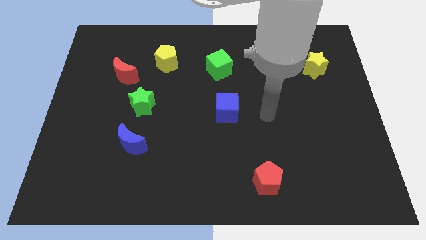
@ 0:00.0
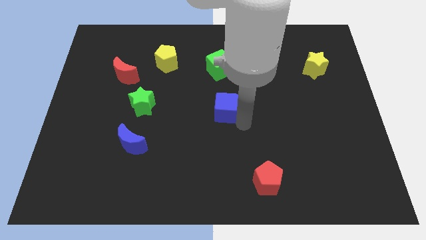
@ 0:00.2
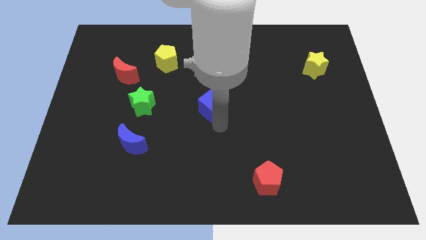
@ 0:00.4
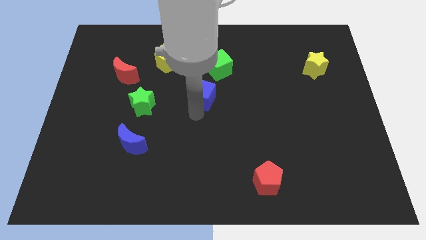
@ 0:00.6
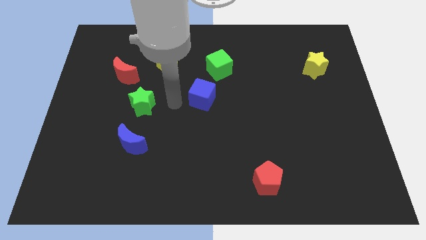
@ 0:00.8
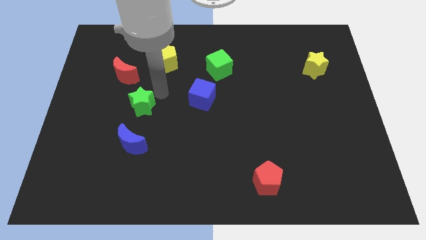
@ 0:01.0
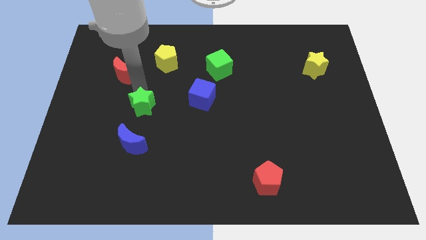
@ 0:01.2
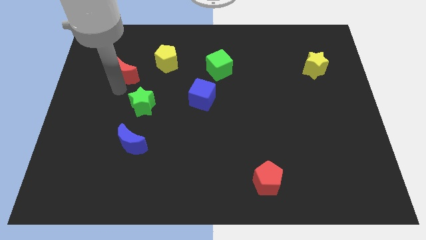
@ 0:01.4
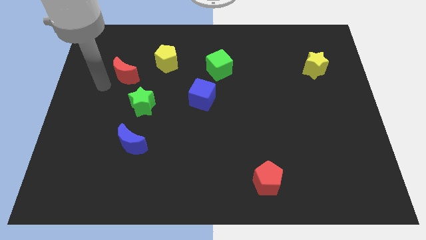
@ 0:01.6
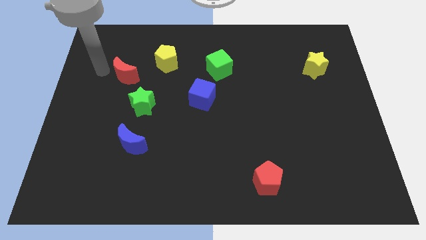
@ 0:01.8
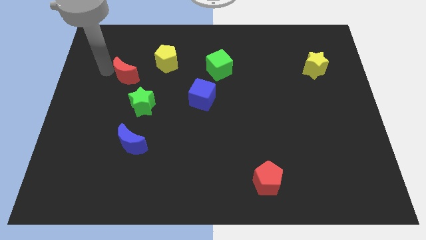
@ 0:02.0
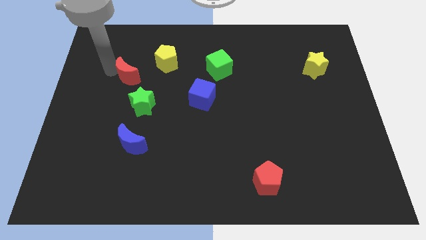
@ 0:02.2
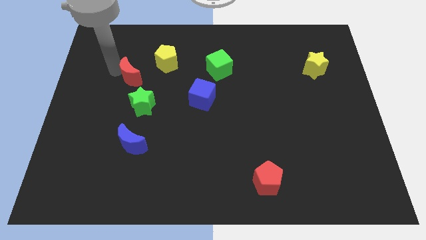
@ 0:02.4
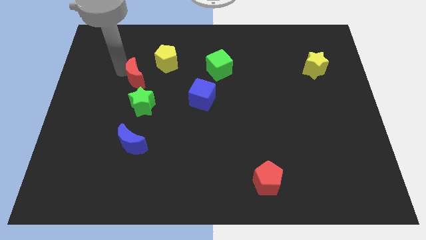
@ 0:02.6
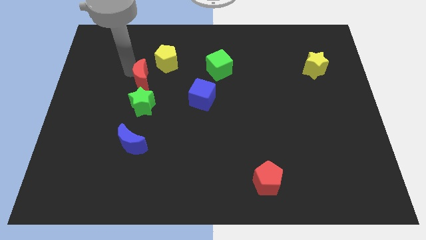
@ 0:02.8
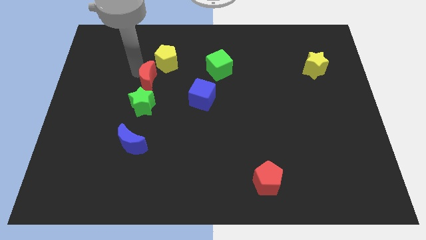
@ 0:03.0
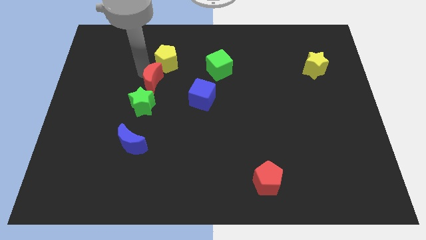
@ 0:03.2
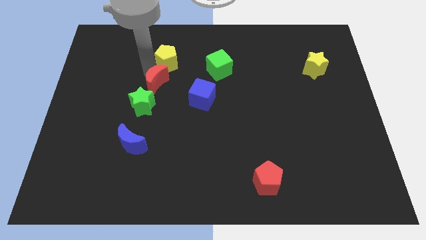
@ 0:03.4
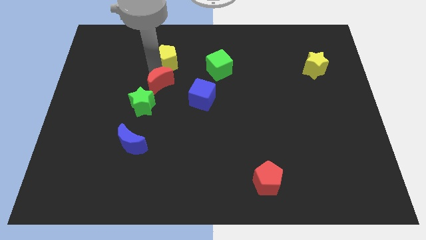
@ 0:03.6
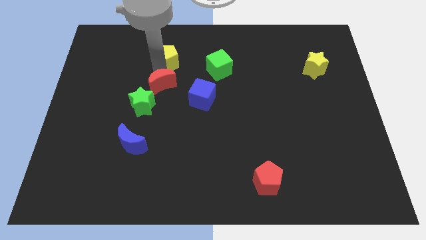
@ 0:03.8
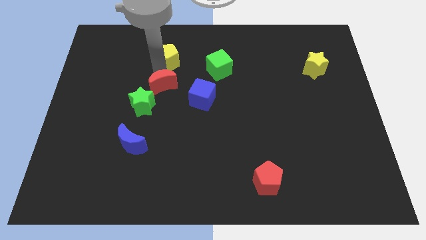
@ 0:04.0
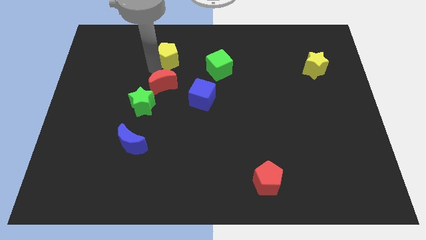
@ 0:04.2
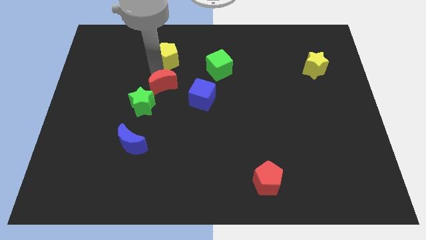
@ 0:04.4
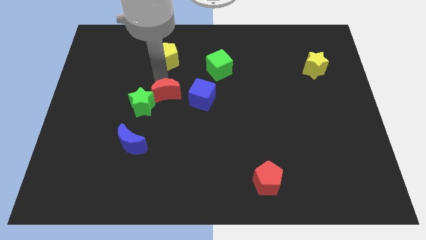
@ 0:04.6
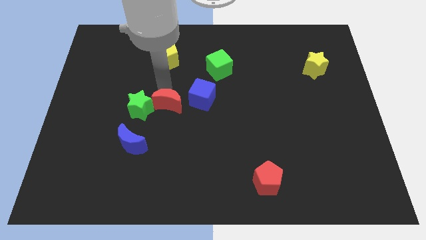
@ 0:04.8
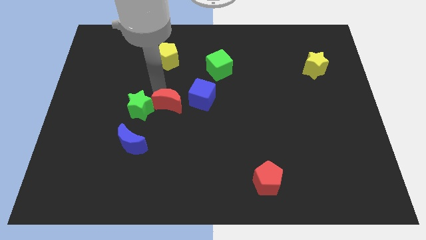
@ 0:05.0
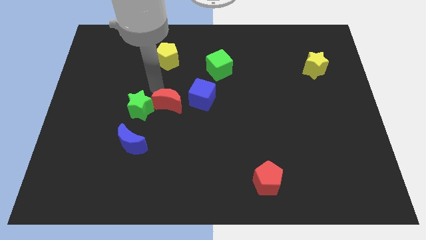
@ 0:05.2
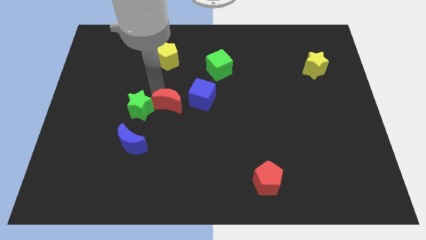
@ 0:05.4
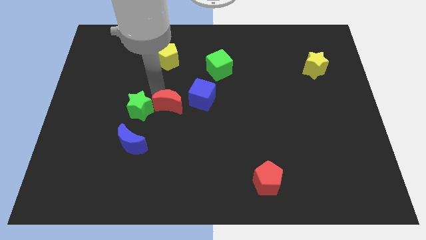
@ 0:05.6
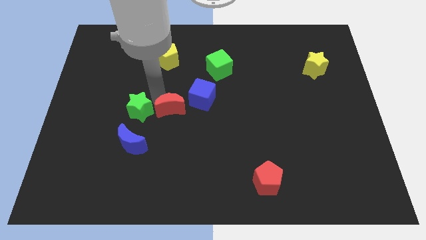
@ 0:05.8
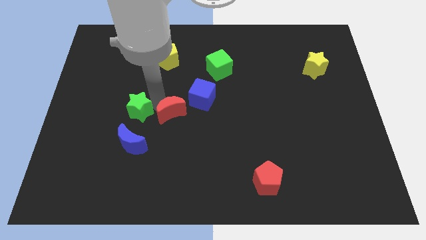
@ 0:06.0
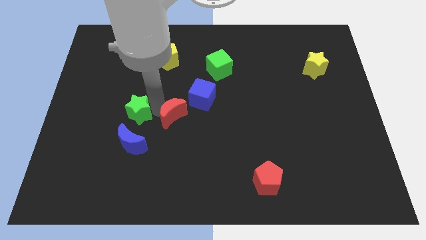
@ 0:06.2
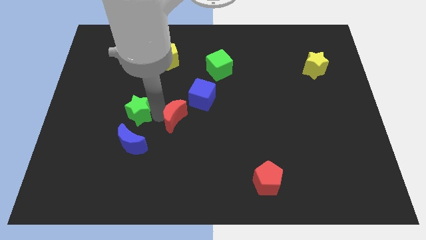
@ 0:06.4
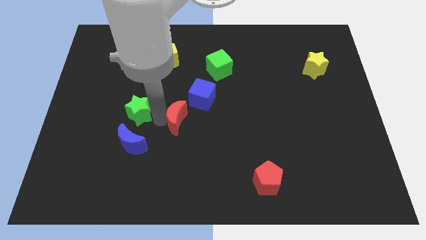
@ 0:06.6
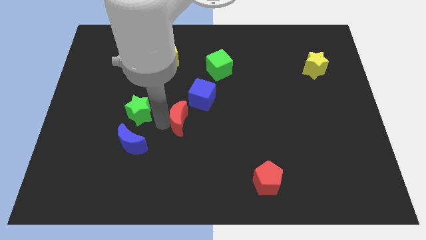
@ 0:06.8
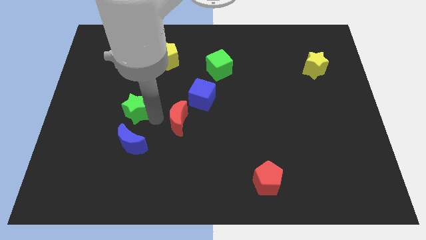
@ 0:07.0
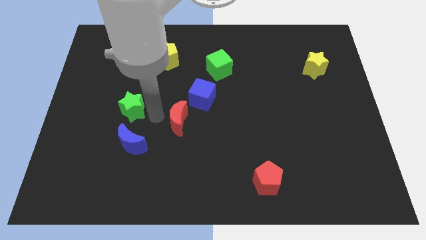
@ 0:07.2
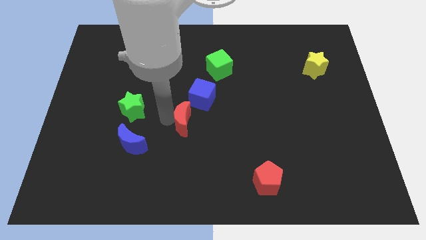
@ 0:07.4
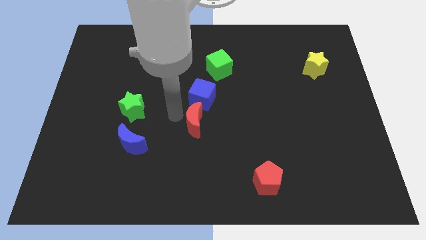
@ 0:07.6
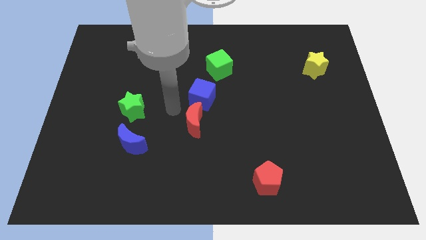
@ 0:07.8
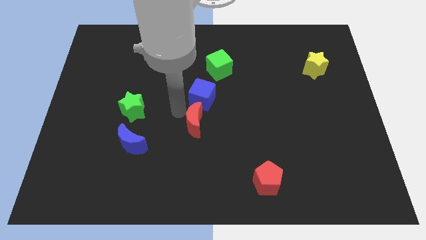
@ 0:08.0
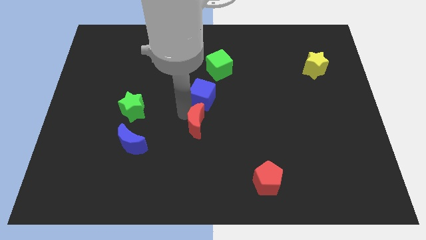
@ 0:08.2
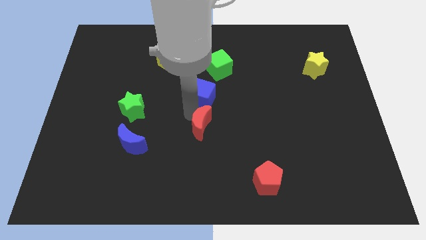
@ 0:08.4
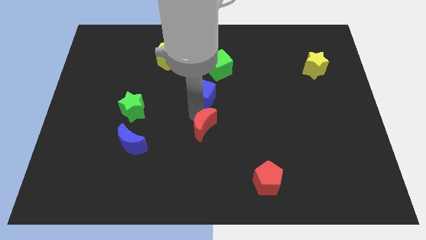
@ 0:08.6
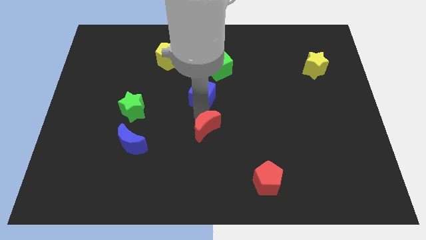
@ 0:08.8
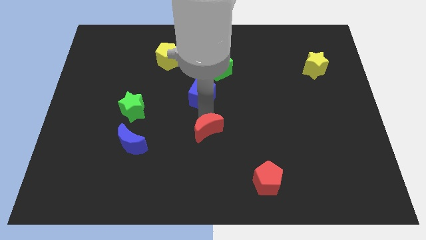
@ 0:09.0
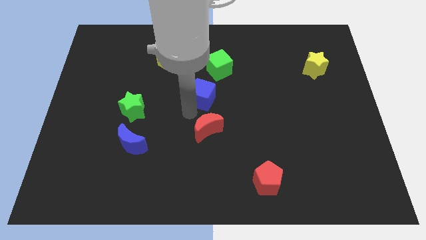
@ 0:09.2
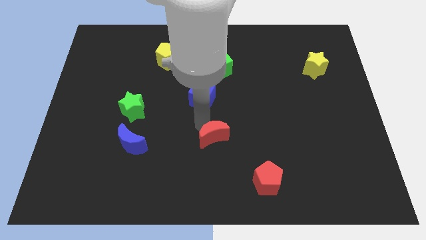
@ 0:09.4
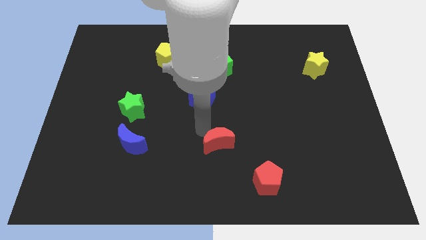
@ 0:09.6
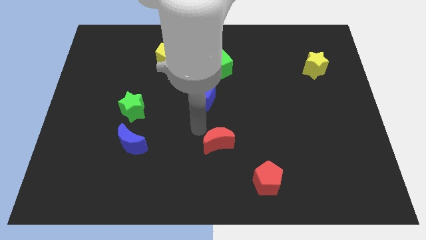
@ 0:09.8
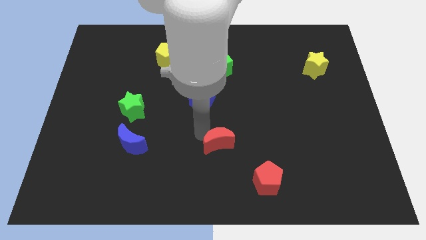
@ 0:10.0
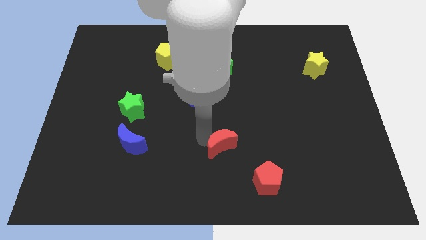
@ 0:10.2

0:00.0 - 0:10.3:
push the red moon diagonally up and to the left of the red pentagon

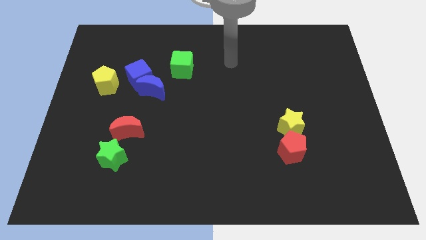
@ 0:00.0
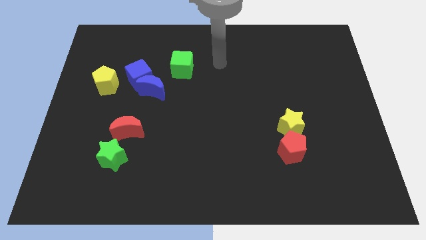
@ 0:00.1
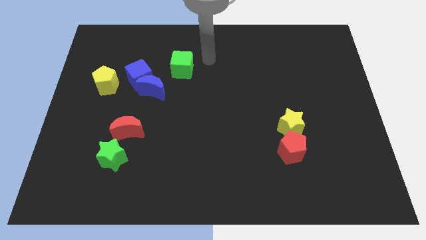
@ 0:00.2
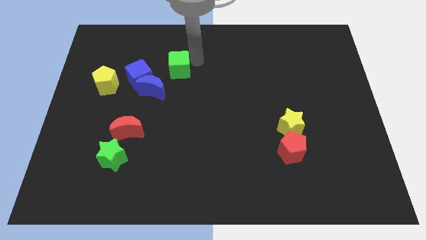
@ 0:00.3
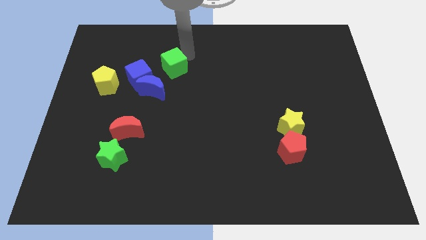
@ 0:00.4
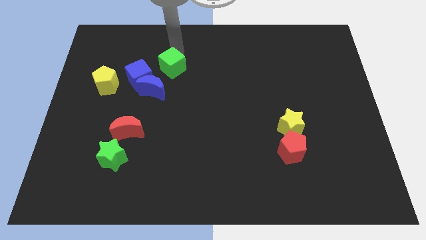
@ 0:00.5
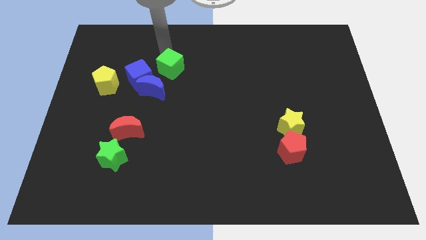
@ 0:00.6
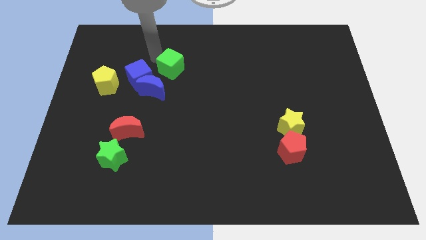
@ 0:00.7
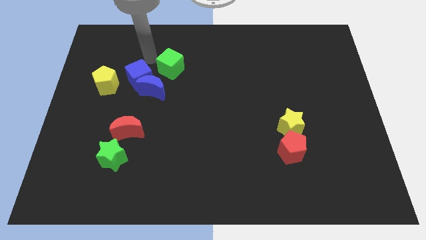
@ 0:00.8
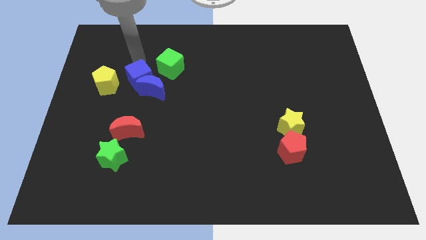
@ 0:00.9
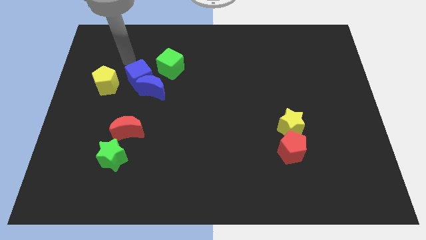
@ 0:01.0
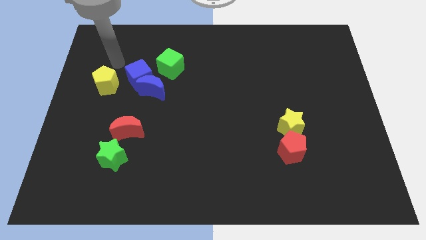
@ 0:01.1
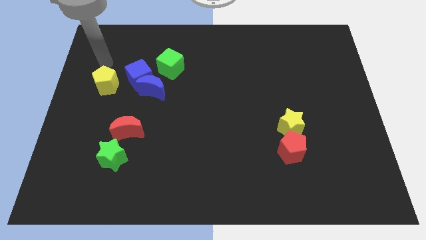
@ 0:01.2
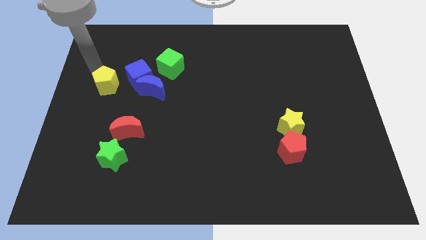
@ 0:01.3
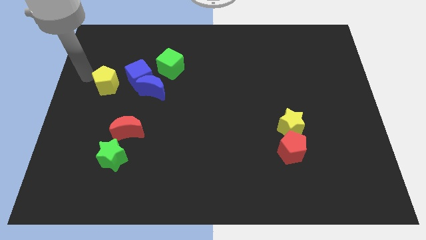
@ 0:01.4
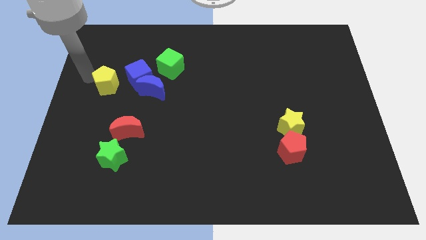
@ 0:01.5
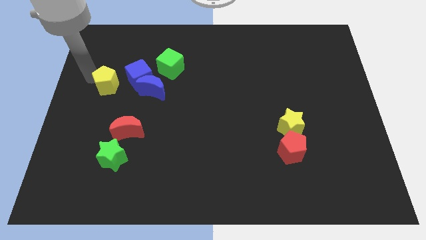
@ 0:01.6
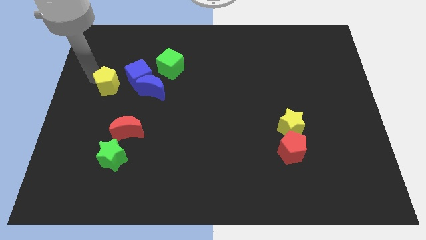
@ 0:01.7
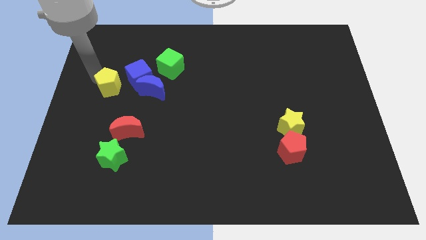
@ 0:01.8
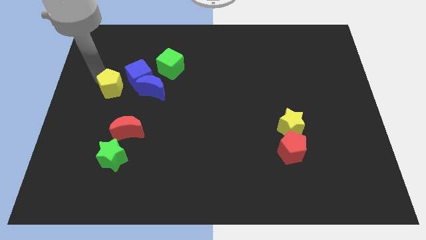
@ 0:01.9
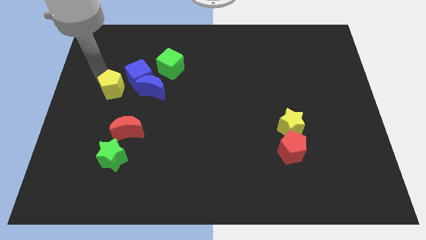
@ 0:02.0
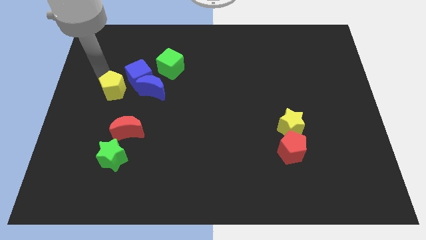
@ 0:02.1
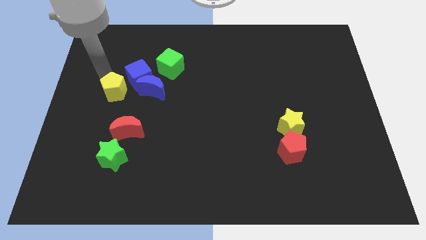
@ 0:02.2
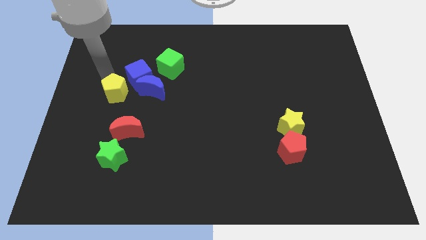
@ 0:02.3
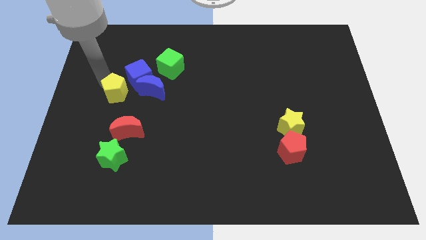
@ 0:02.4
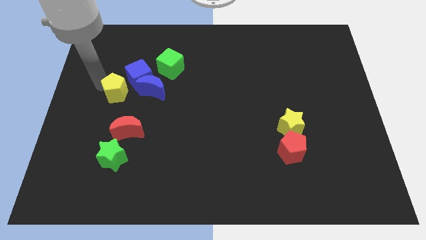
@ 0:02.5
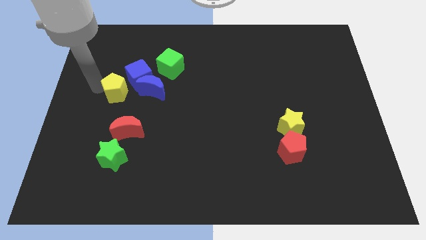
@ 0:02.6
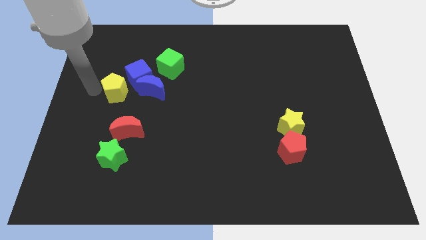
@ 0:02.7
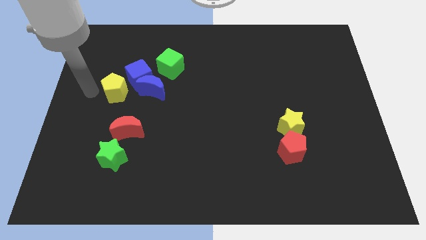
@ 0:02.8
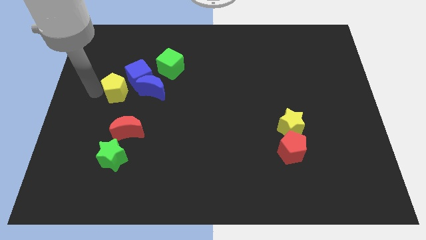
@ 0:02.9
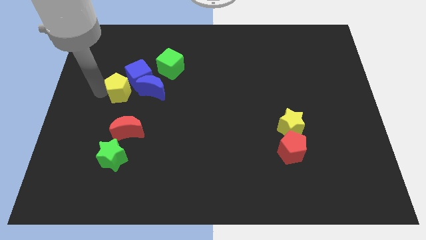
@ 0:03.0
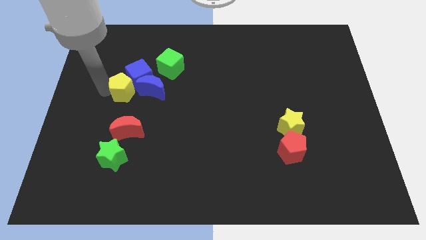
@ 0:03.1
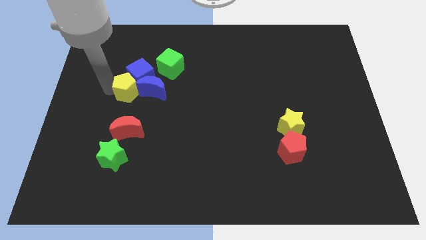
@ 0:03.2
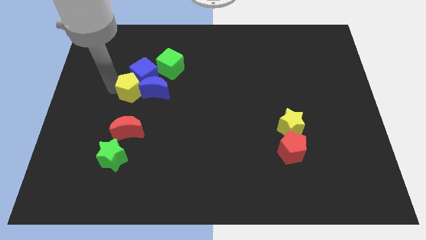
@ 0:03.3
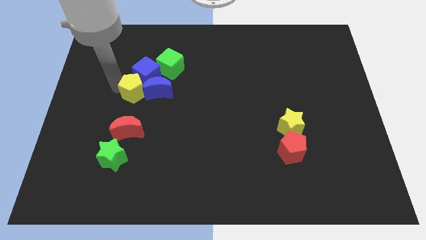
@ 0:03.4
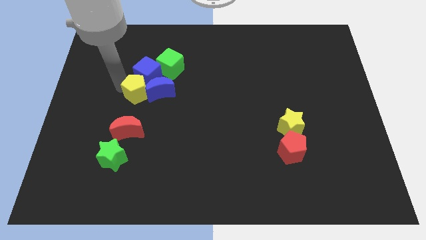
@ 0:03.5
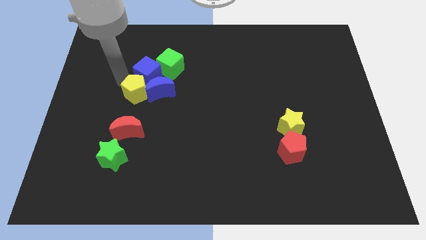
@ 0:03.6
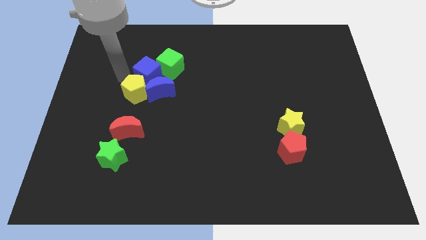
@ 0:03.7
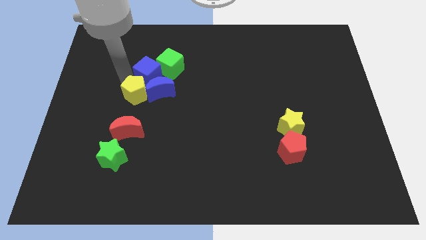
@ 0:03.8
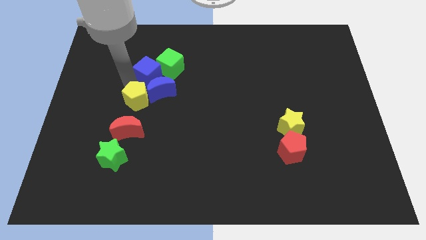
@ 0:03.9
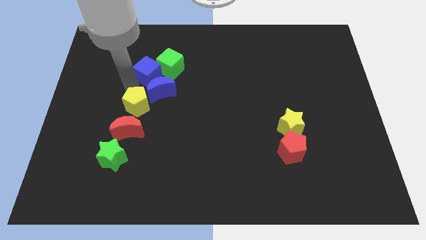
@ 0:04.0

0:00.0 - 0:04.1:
push the yellow pentagon to the top right of the red moon
